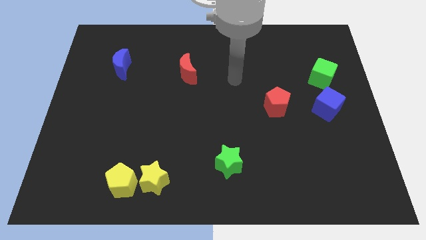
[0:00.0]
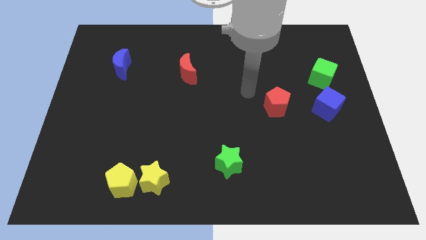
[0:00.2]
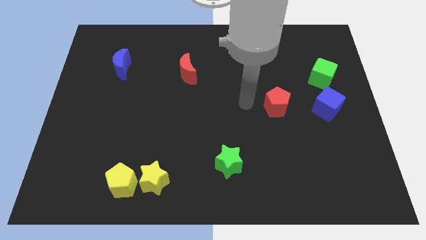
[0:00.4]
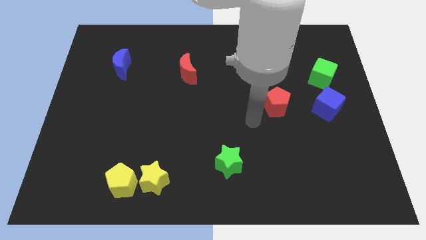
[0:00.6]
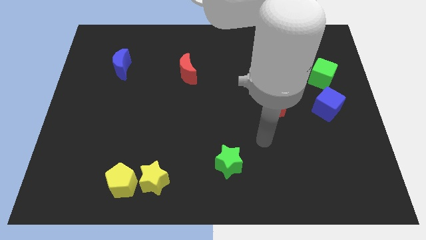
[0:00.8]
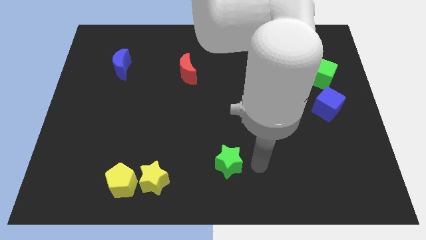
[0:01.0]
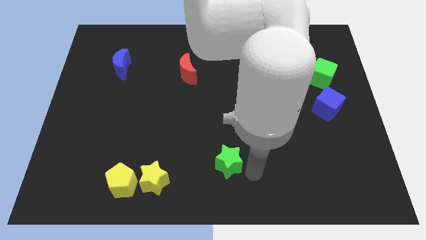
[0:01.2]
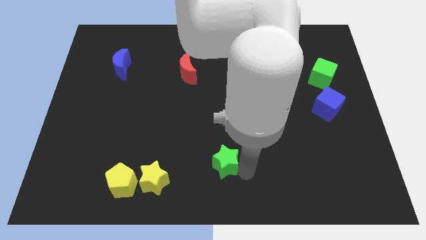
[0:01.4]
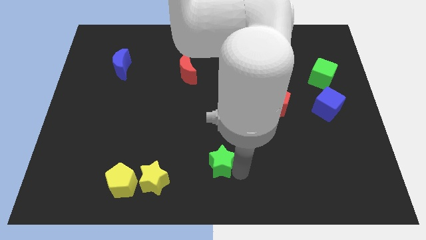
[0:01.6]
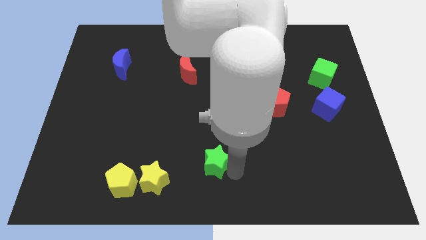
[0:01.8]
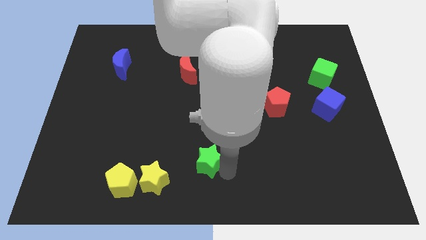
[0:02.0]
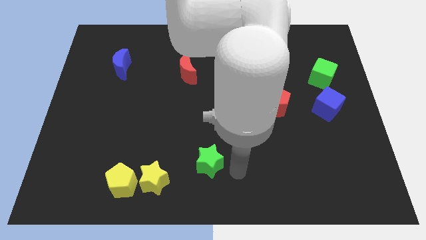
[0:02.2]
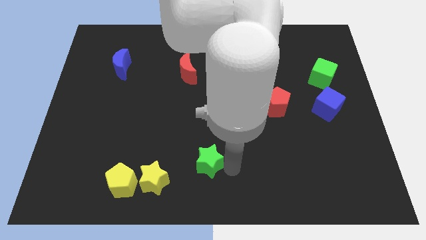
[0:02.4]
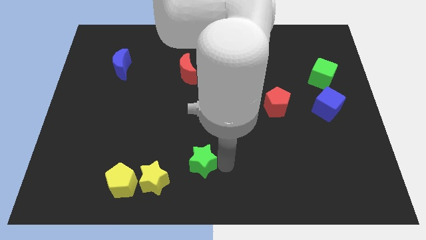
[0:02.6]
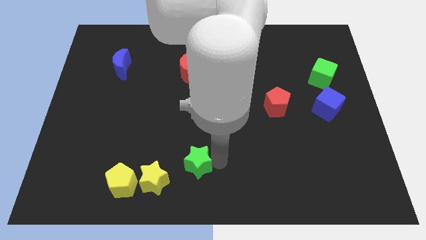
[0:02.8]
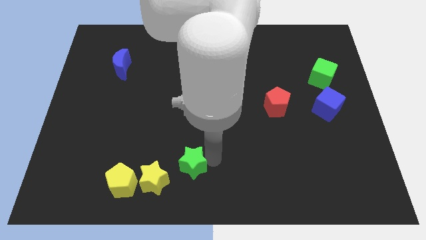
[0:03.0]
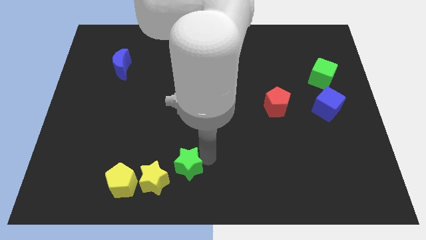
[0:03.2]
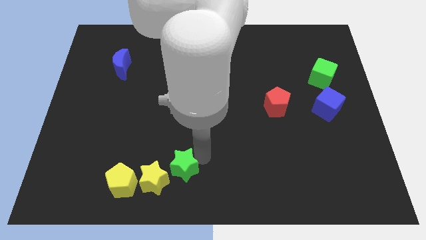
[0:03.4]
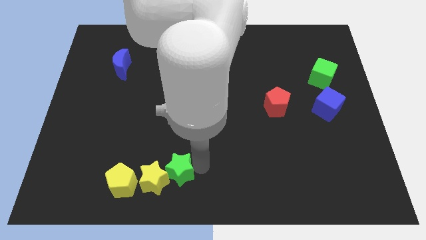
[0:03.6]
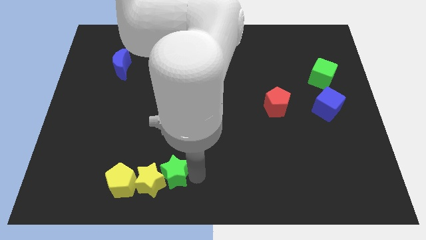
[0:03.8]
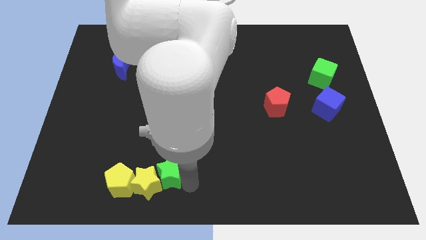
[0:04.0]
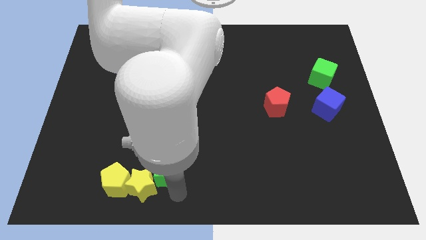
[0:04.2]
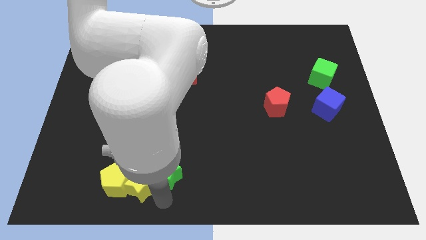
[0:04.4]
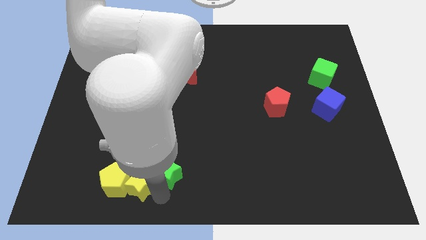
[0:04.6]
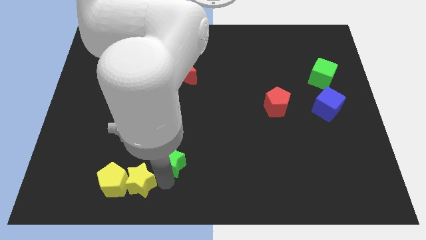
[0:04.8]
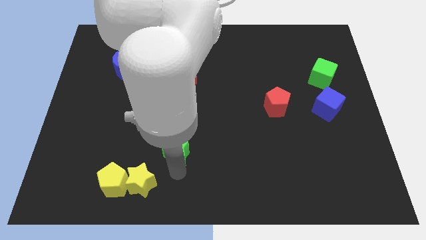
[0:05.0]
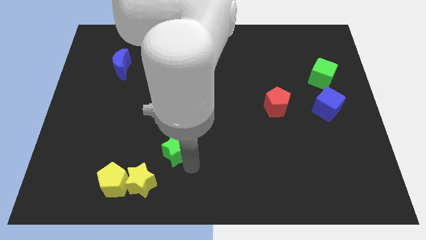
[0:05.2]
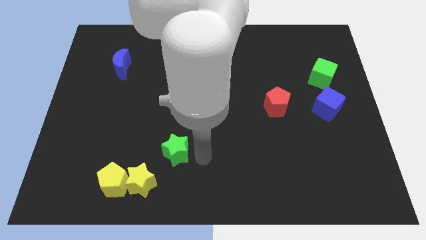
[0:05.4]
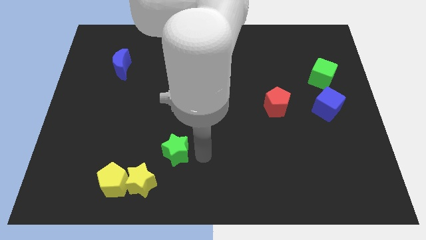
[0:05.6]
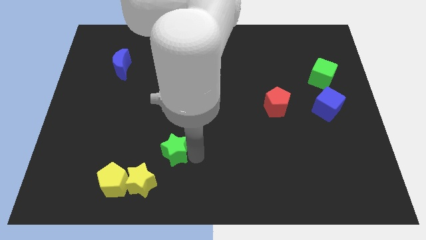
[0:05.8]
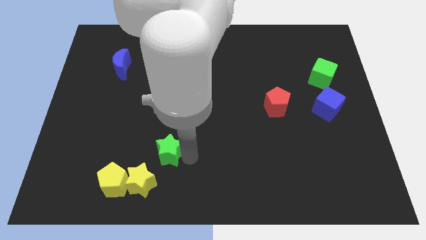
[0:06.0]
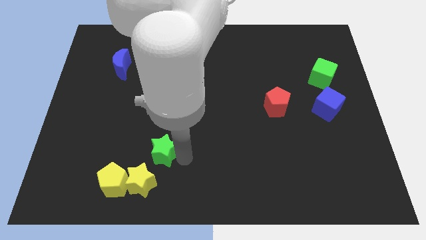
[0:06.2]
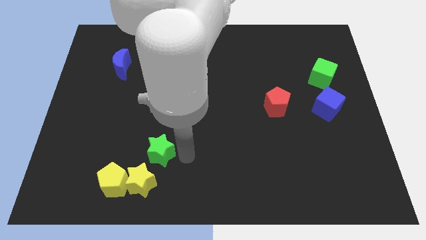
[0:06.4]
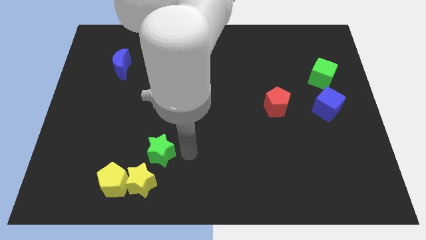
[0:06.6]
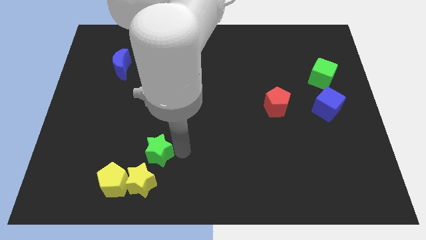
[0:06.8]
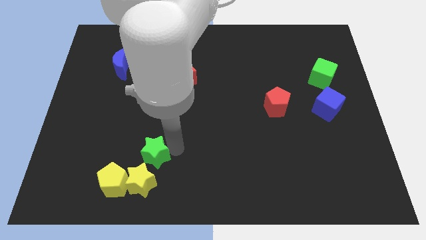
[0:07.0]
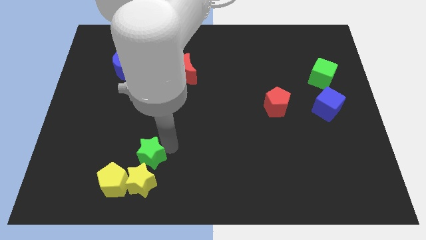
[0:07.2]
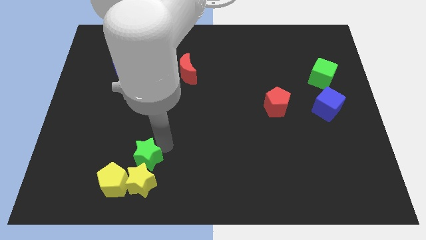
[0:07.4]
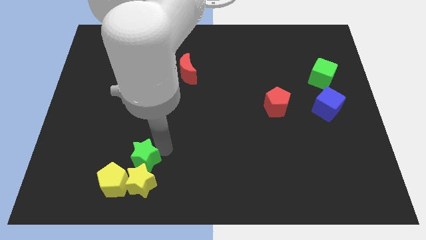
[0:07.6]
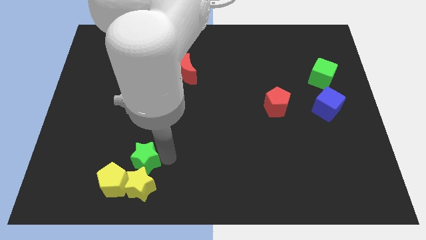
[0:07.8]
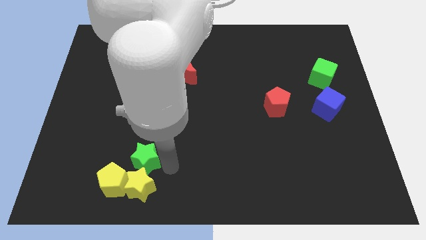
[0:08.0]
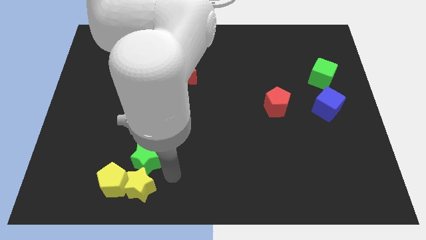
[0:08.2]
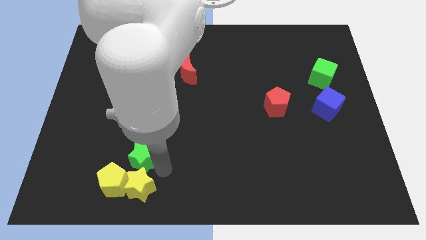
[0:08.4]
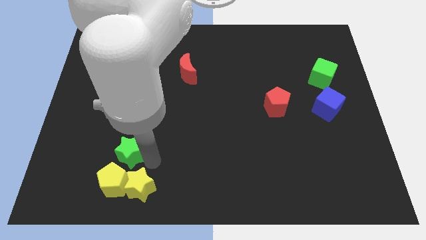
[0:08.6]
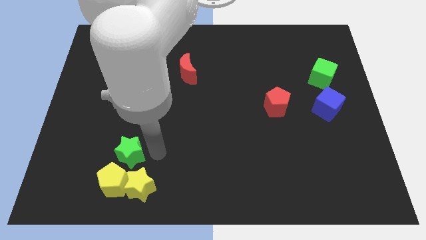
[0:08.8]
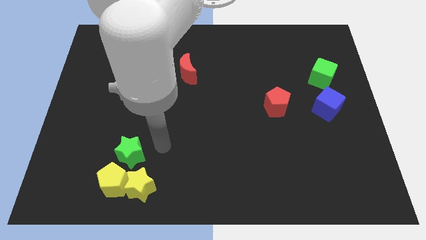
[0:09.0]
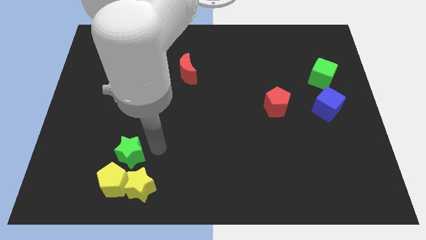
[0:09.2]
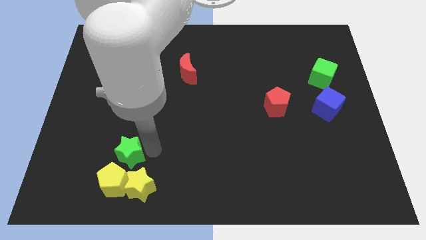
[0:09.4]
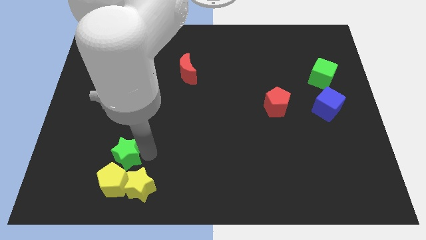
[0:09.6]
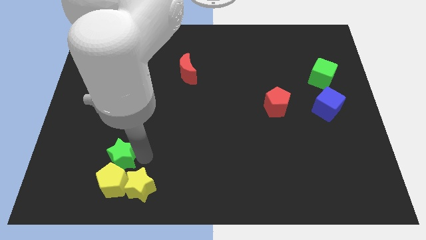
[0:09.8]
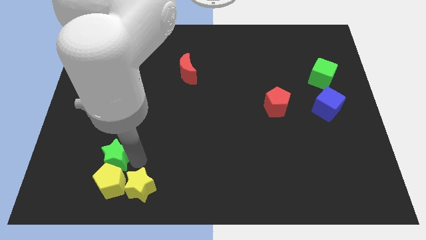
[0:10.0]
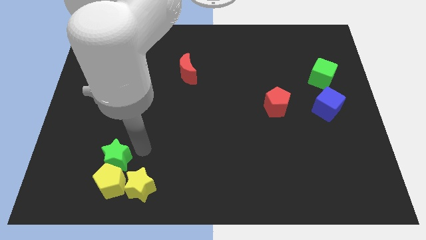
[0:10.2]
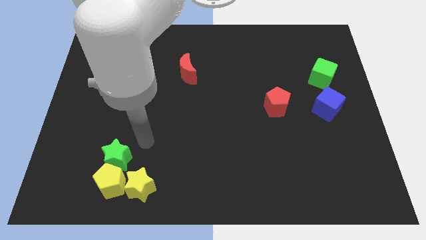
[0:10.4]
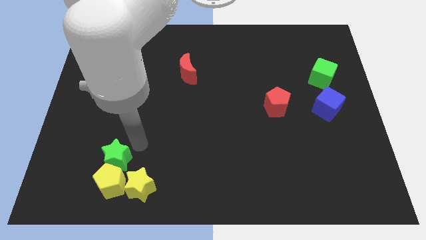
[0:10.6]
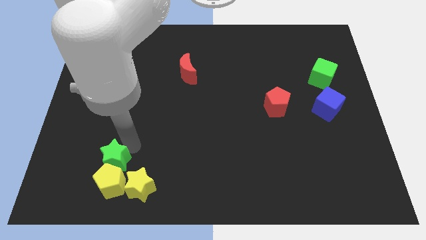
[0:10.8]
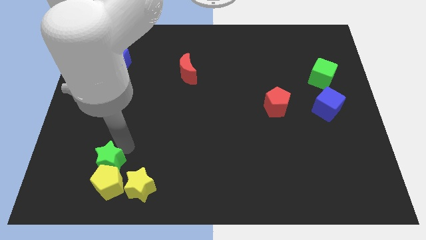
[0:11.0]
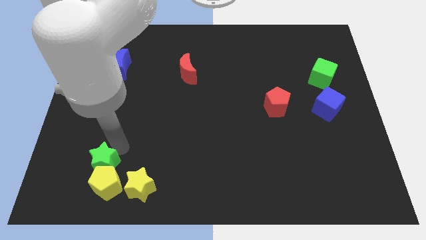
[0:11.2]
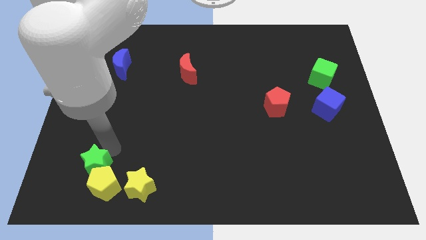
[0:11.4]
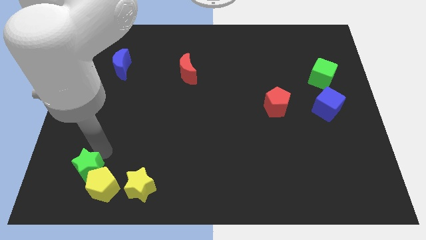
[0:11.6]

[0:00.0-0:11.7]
put the green star to the left side of the yellow pentagon

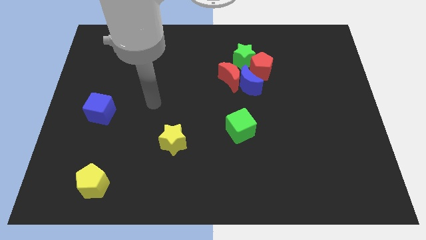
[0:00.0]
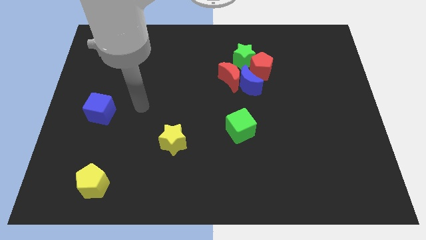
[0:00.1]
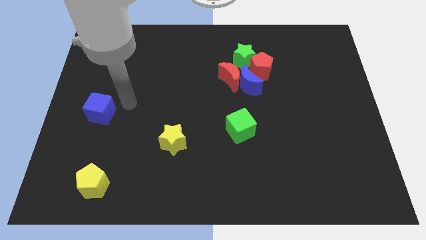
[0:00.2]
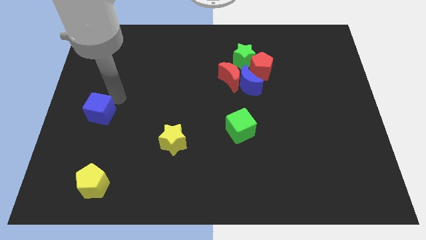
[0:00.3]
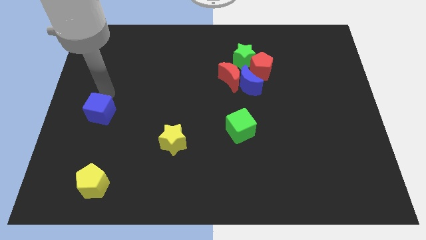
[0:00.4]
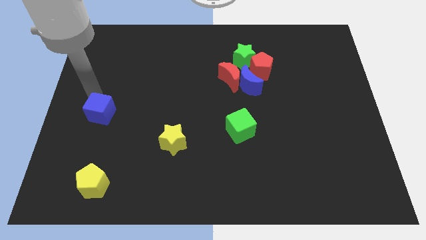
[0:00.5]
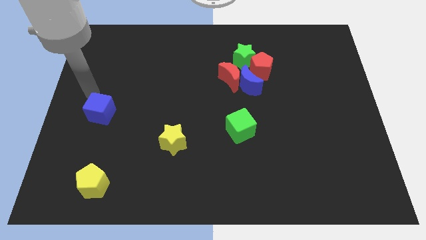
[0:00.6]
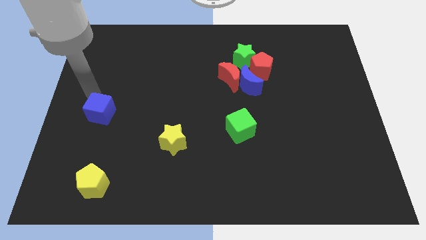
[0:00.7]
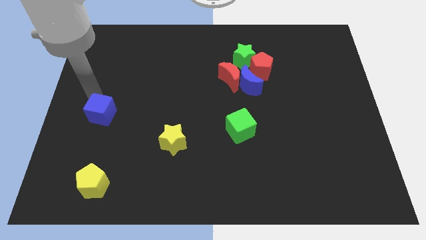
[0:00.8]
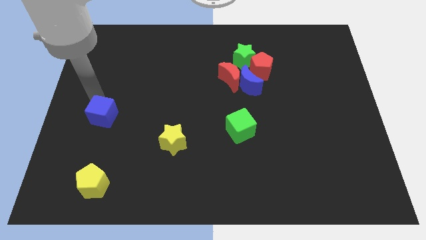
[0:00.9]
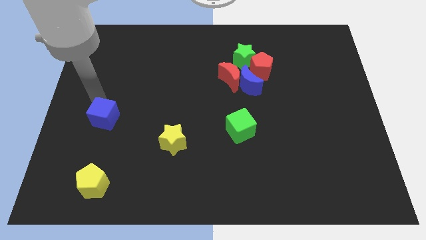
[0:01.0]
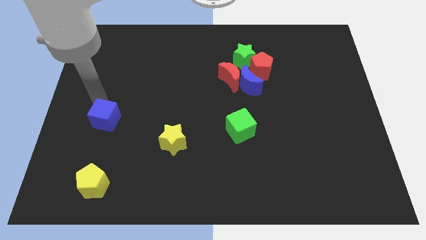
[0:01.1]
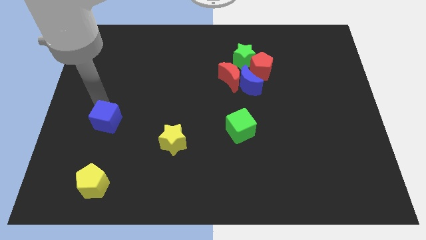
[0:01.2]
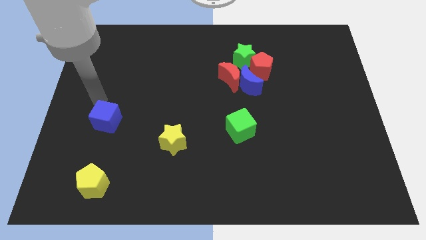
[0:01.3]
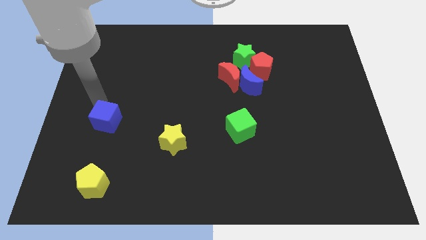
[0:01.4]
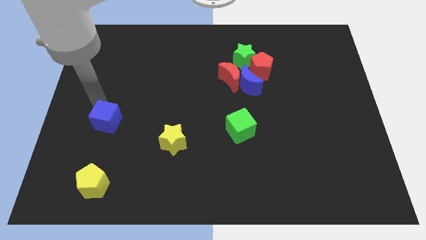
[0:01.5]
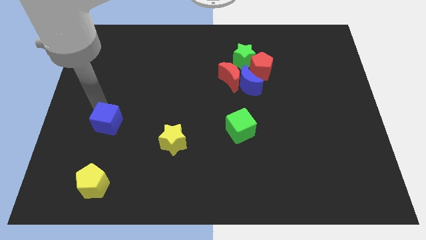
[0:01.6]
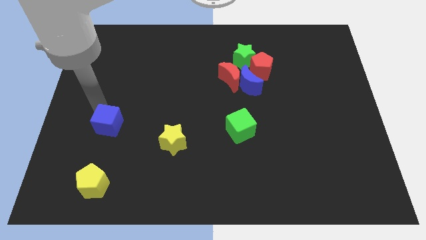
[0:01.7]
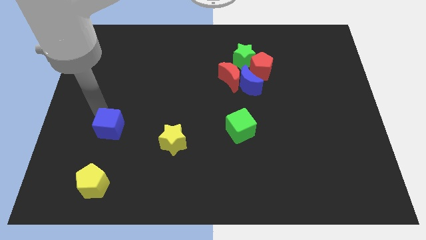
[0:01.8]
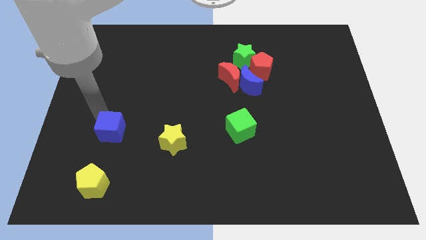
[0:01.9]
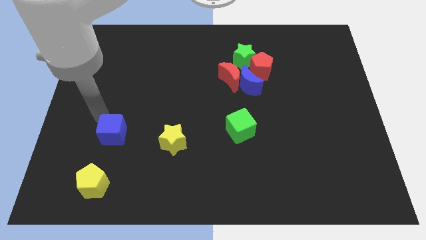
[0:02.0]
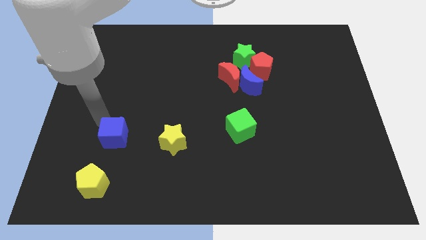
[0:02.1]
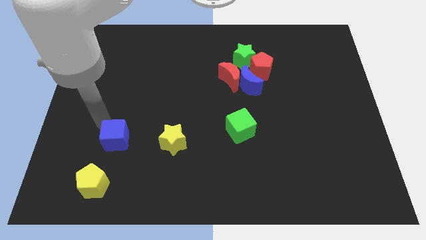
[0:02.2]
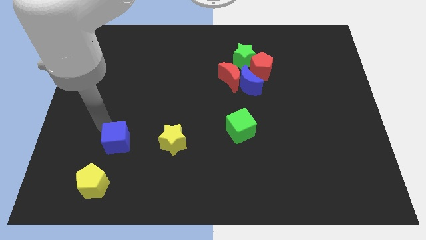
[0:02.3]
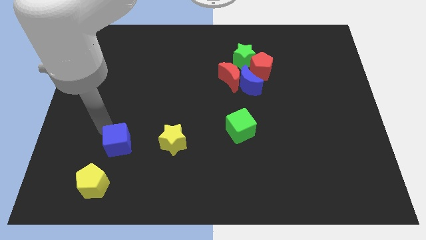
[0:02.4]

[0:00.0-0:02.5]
push the blue cube to the top right of the yellow pentagon
